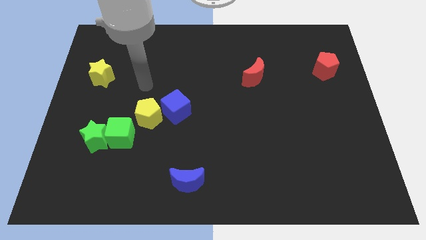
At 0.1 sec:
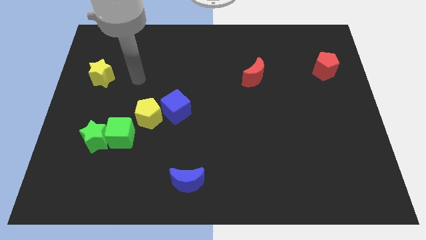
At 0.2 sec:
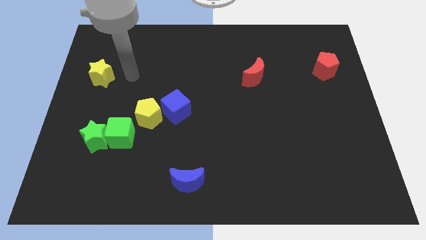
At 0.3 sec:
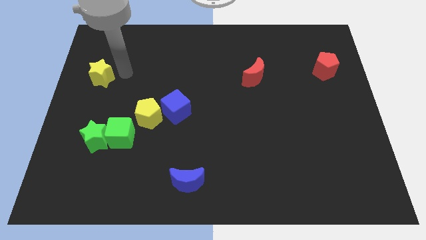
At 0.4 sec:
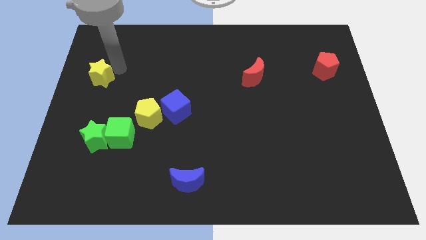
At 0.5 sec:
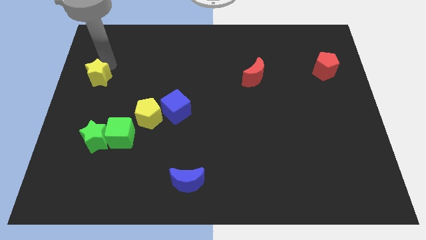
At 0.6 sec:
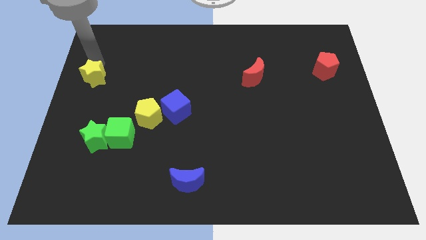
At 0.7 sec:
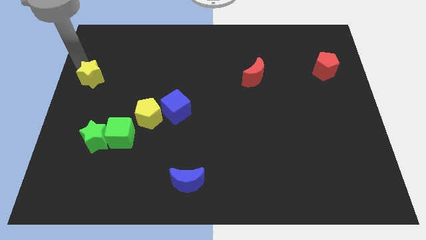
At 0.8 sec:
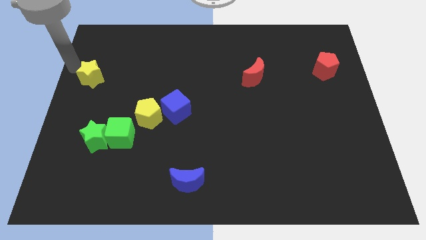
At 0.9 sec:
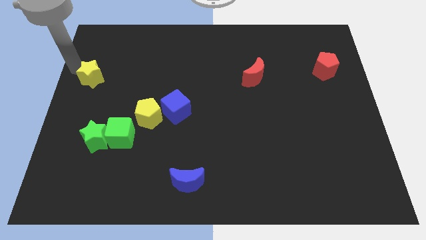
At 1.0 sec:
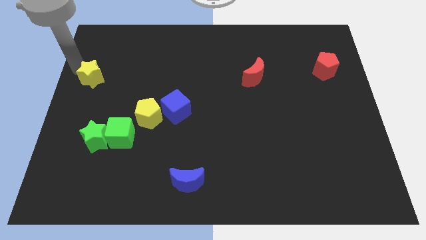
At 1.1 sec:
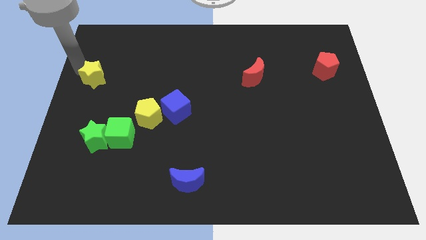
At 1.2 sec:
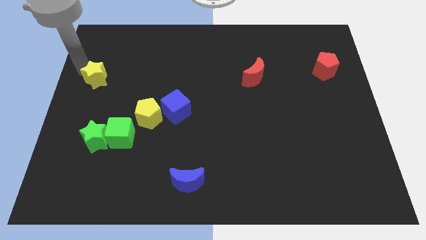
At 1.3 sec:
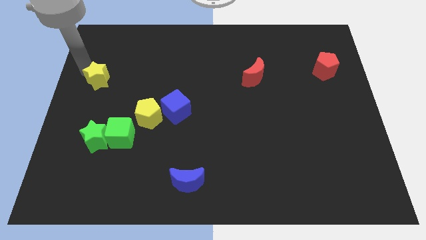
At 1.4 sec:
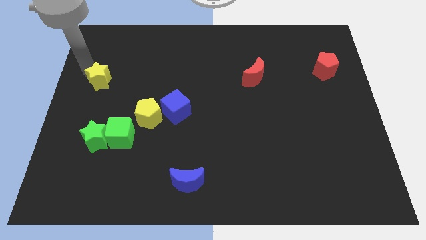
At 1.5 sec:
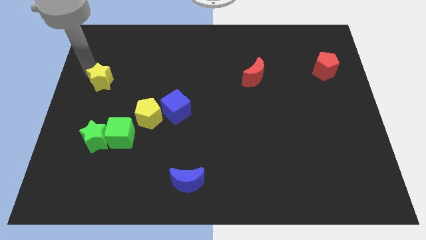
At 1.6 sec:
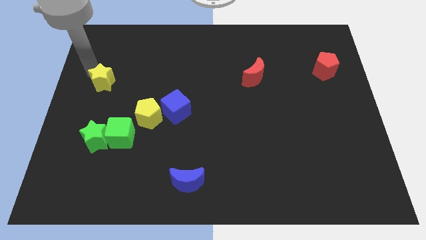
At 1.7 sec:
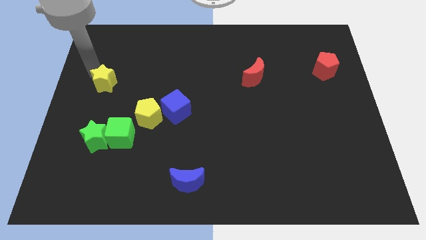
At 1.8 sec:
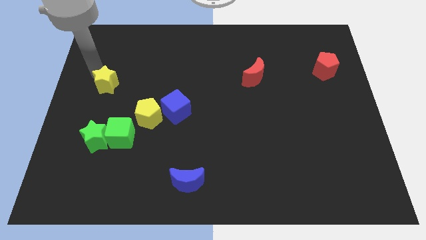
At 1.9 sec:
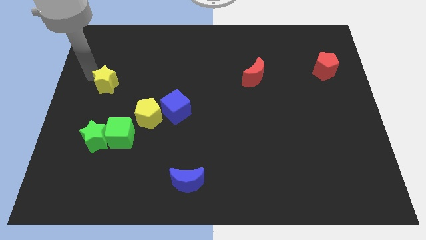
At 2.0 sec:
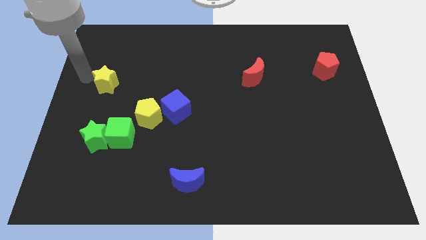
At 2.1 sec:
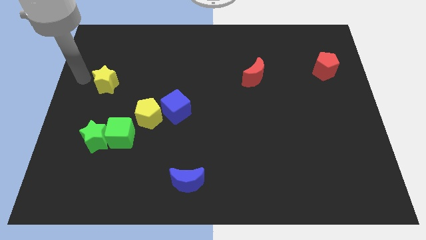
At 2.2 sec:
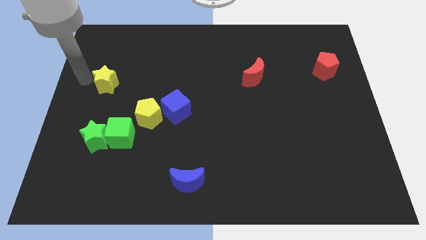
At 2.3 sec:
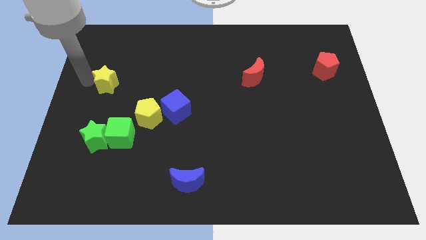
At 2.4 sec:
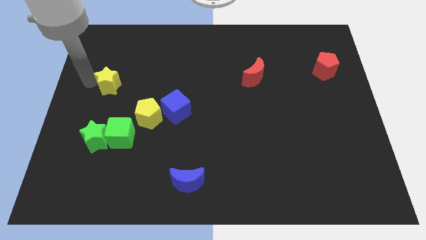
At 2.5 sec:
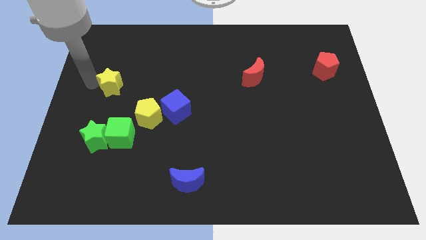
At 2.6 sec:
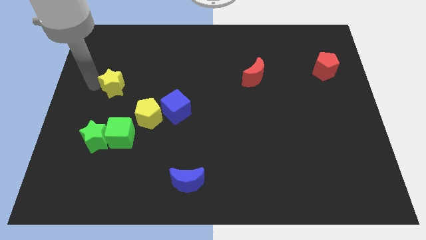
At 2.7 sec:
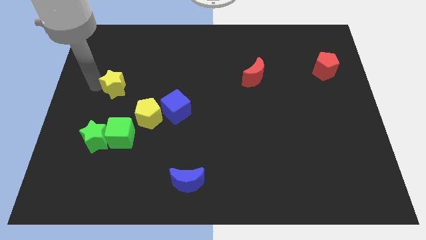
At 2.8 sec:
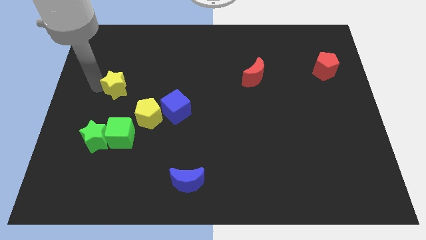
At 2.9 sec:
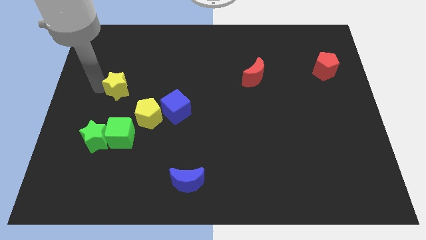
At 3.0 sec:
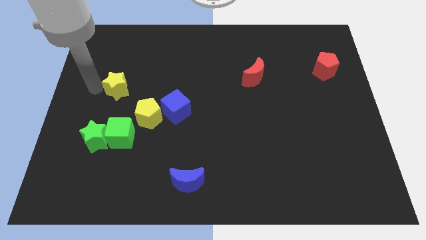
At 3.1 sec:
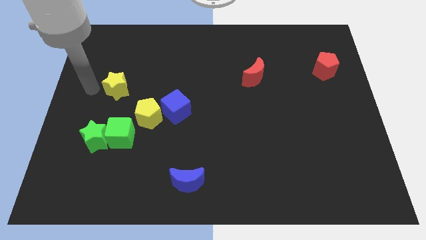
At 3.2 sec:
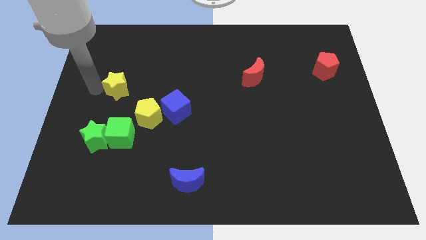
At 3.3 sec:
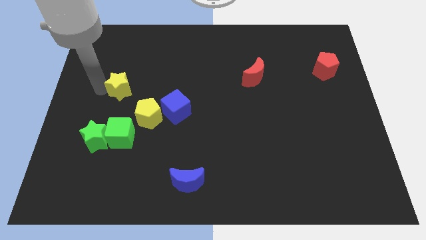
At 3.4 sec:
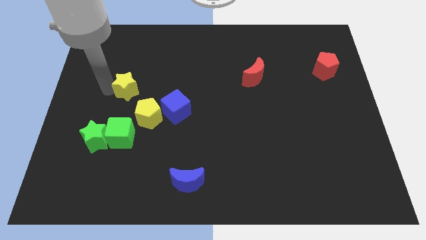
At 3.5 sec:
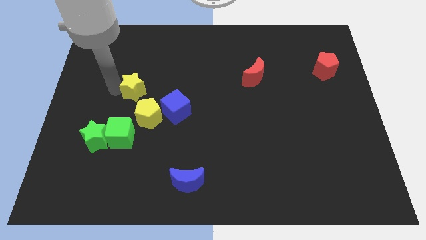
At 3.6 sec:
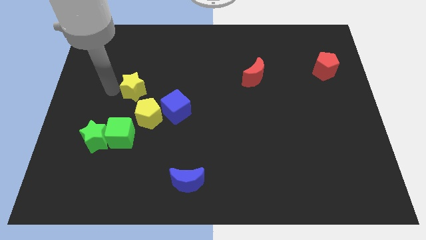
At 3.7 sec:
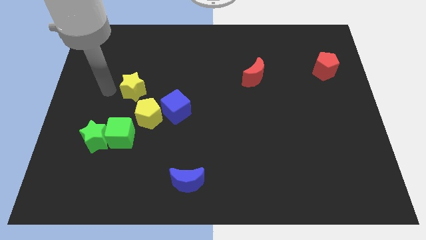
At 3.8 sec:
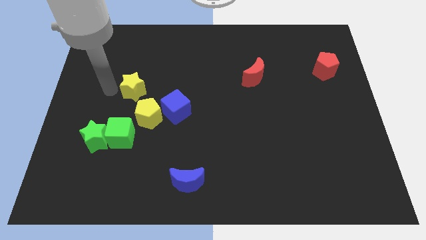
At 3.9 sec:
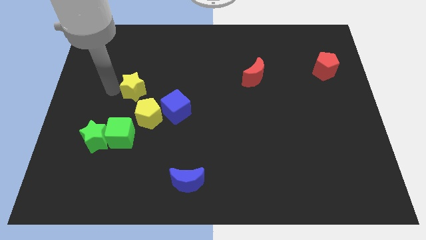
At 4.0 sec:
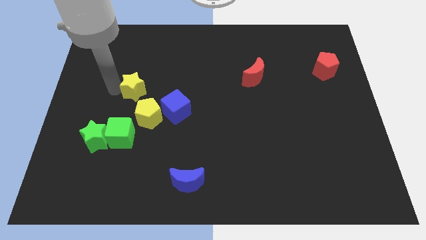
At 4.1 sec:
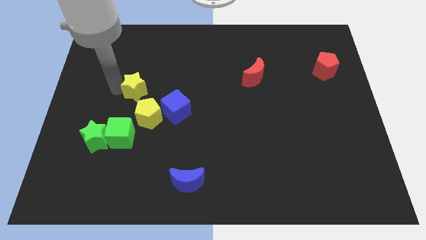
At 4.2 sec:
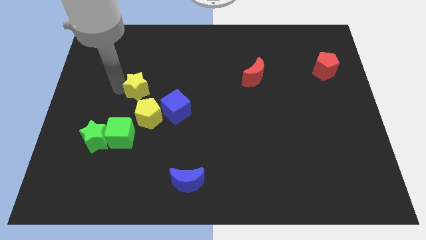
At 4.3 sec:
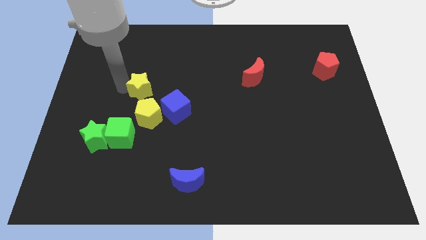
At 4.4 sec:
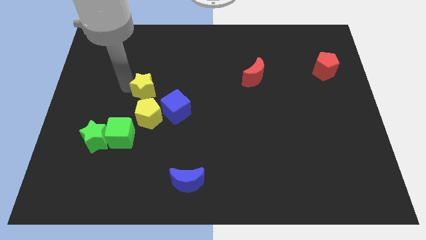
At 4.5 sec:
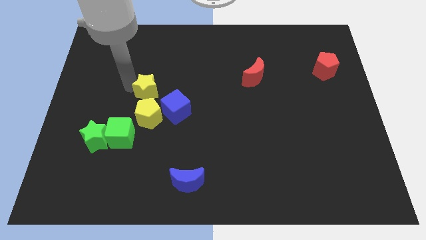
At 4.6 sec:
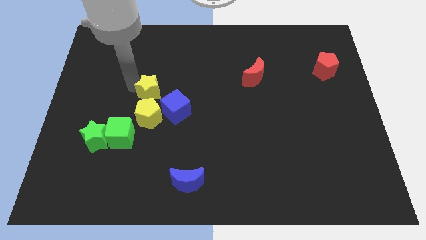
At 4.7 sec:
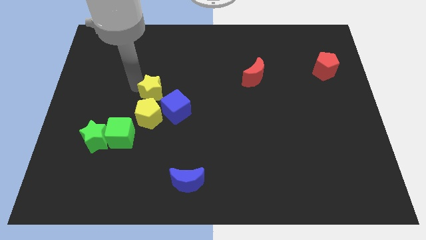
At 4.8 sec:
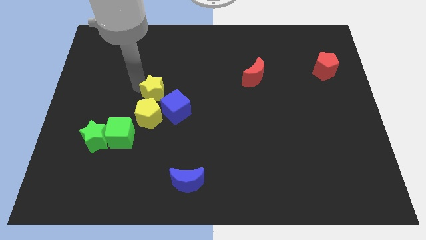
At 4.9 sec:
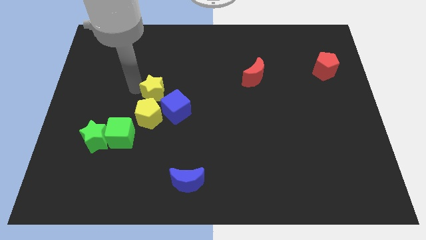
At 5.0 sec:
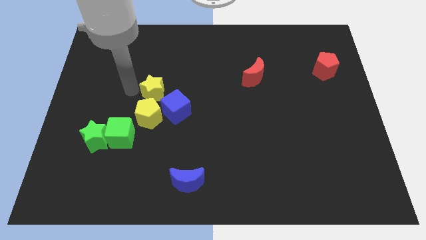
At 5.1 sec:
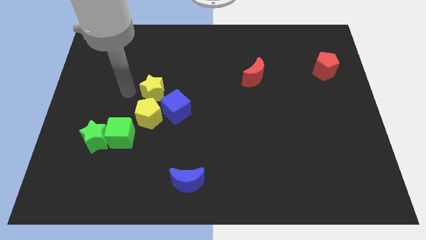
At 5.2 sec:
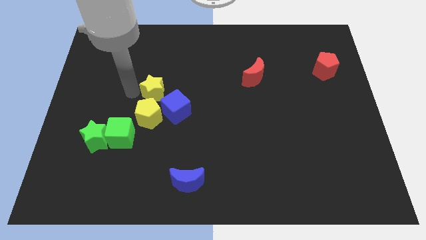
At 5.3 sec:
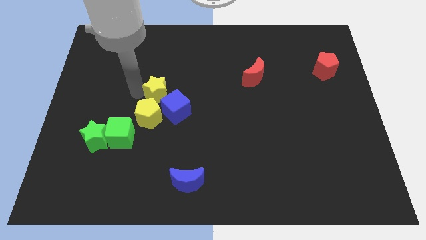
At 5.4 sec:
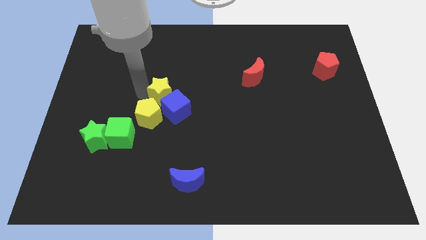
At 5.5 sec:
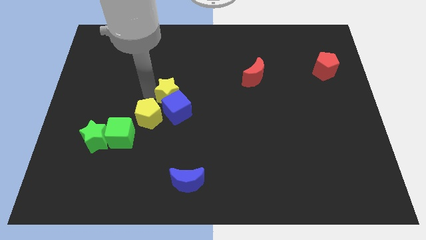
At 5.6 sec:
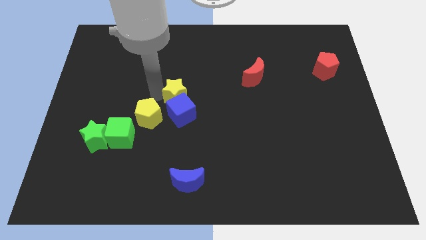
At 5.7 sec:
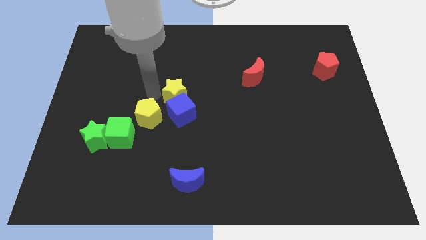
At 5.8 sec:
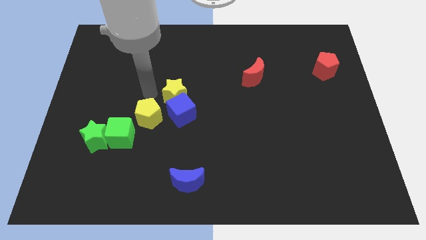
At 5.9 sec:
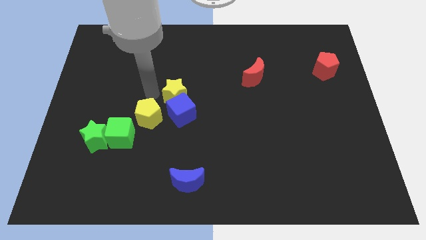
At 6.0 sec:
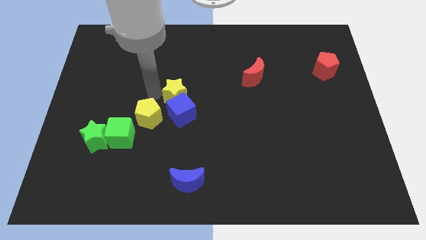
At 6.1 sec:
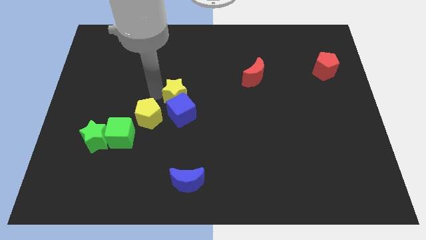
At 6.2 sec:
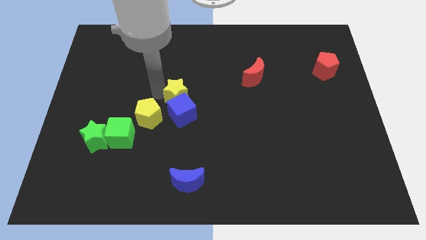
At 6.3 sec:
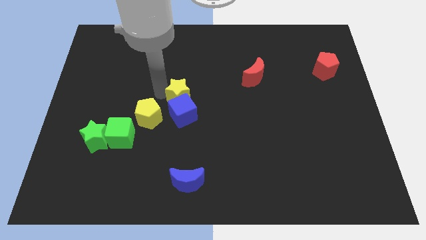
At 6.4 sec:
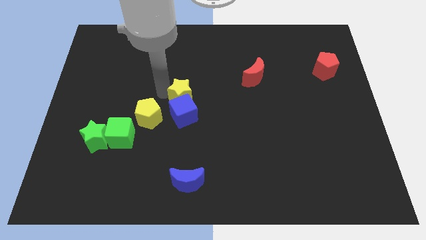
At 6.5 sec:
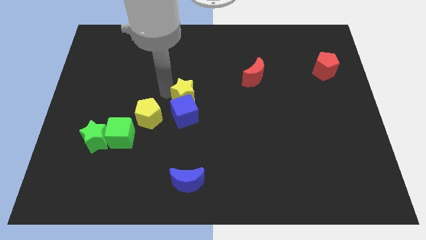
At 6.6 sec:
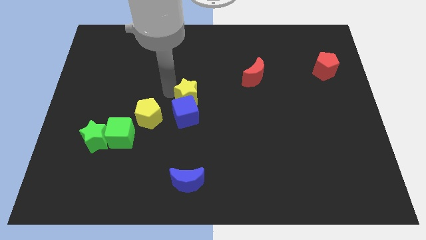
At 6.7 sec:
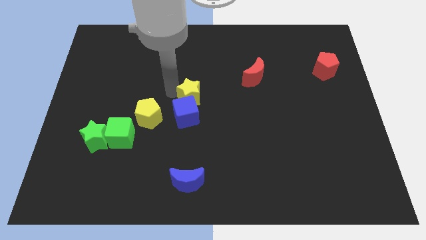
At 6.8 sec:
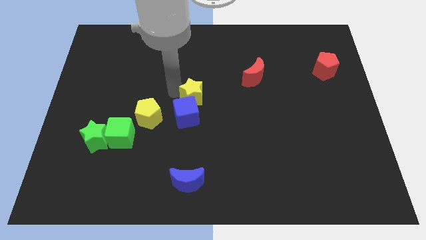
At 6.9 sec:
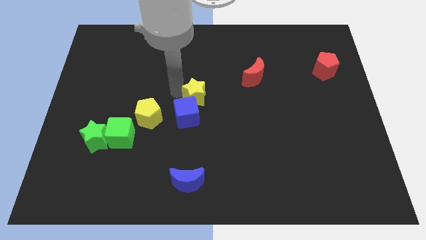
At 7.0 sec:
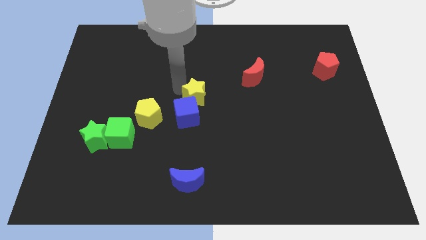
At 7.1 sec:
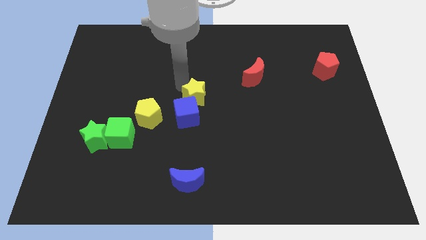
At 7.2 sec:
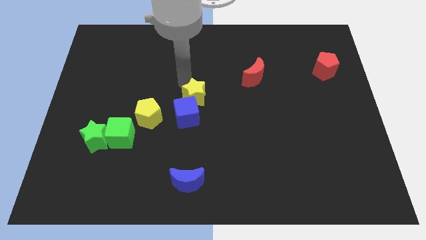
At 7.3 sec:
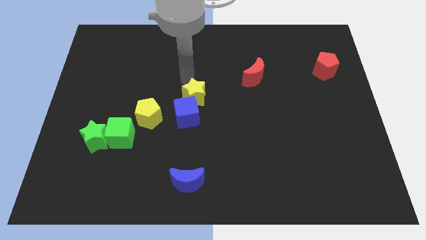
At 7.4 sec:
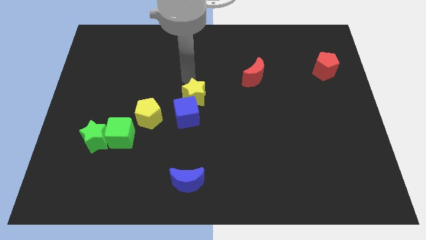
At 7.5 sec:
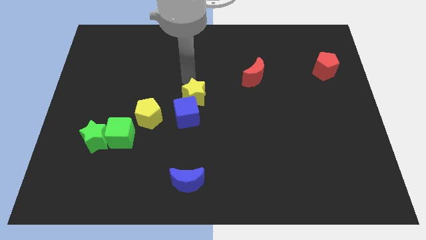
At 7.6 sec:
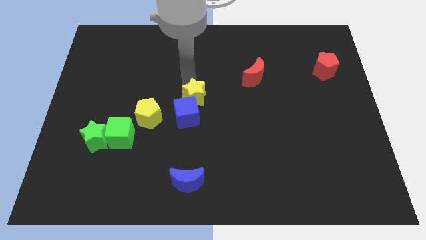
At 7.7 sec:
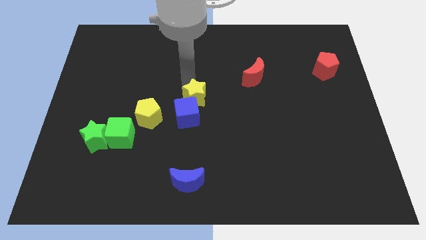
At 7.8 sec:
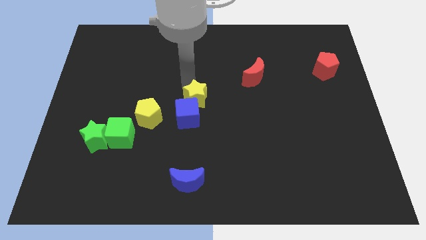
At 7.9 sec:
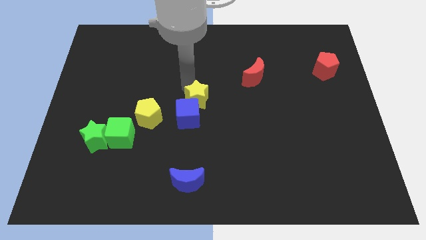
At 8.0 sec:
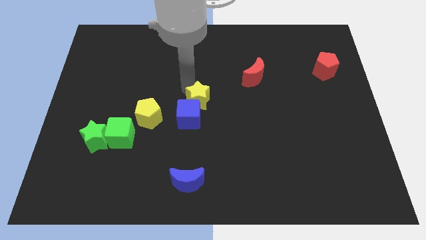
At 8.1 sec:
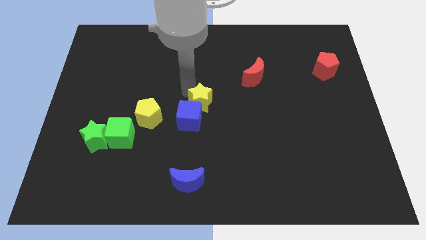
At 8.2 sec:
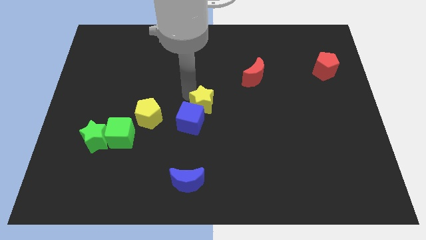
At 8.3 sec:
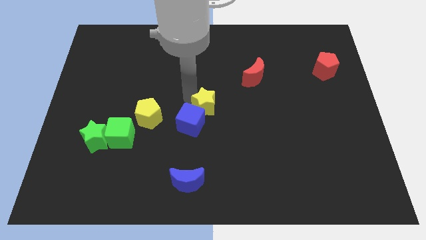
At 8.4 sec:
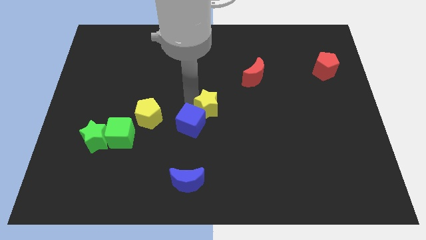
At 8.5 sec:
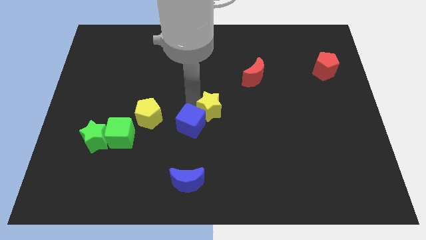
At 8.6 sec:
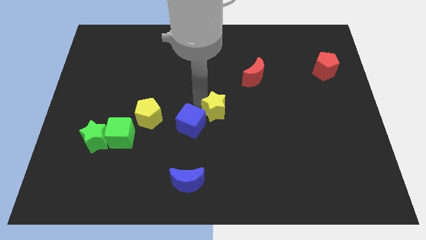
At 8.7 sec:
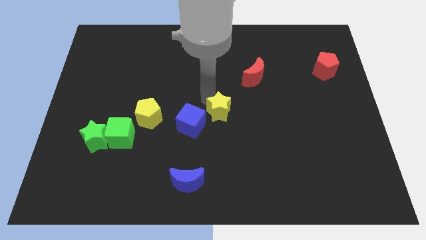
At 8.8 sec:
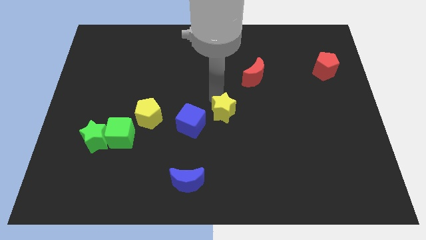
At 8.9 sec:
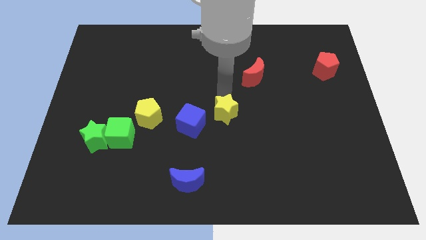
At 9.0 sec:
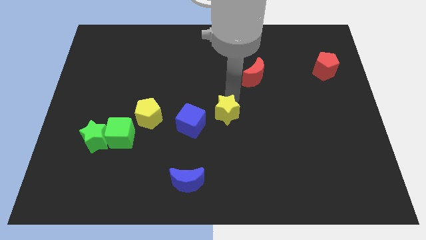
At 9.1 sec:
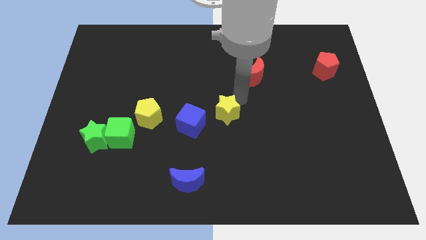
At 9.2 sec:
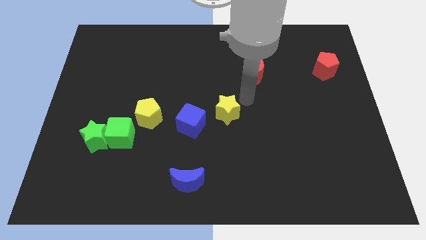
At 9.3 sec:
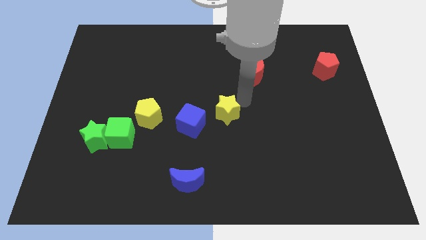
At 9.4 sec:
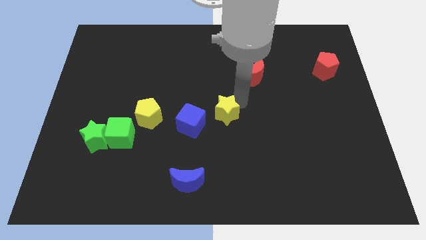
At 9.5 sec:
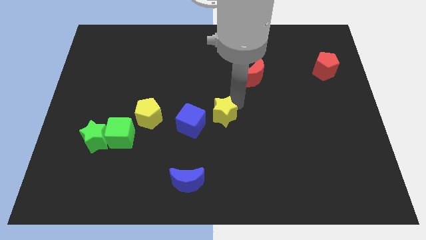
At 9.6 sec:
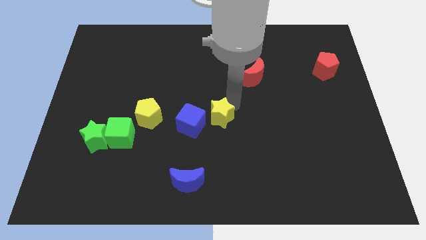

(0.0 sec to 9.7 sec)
push the yellow star down and to the right diagonally
